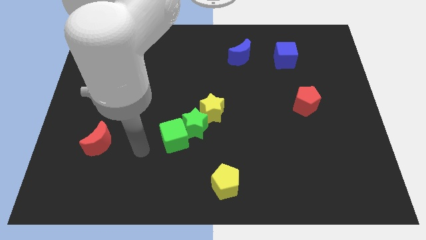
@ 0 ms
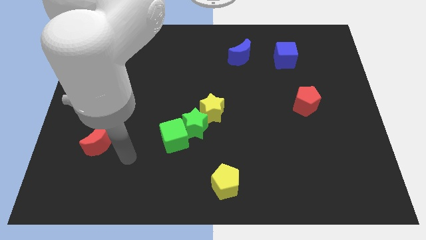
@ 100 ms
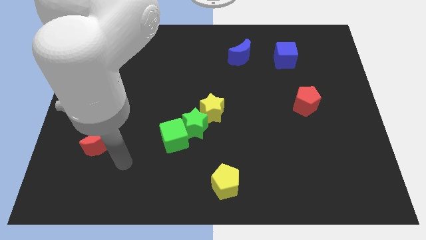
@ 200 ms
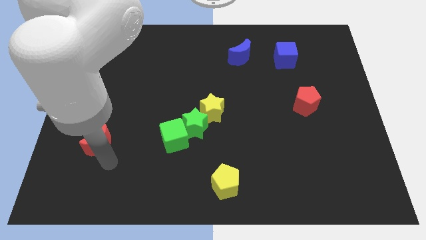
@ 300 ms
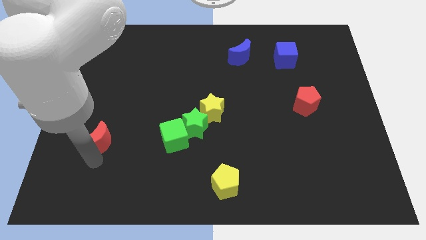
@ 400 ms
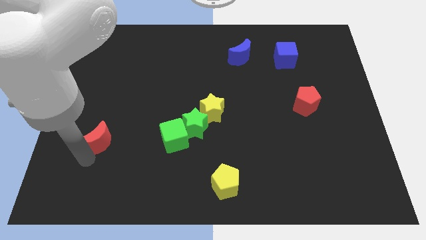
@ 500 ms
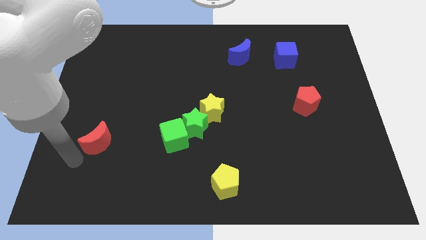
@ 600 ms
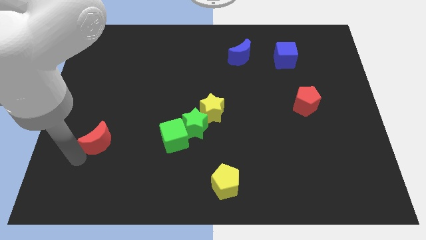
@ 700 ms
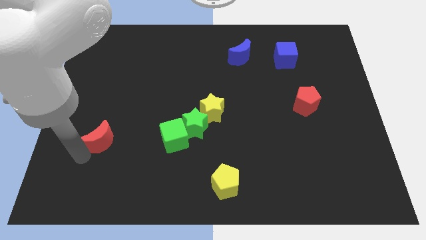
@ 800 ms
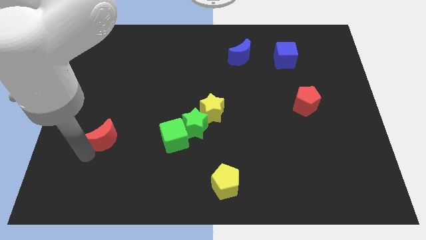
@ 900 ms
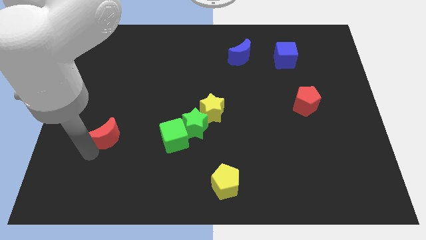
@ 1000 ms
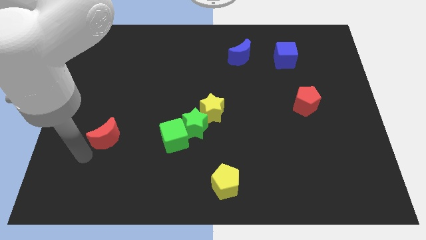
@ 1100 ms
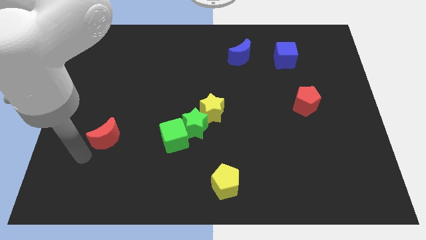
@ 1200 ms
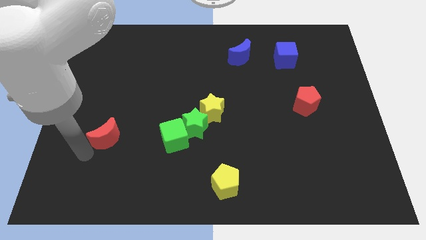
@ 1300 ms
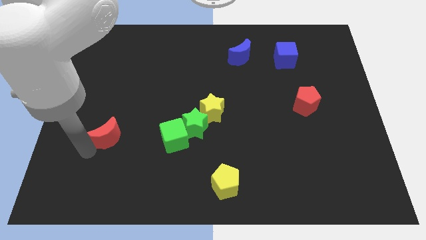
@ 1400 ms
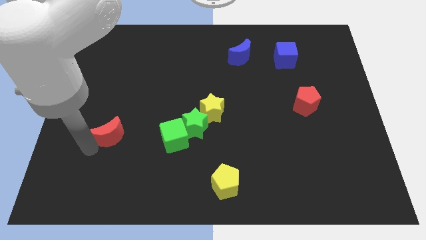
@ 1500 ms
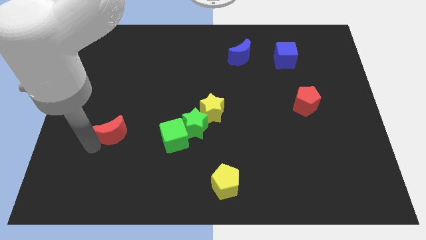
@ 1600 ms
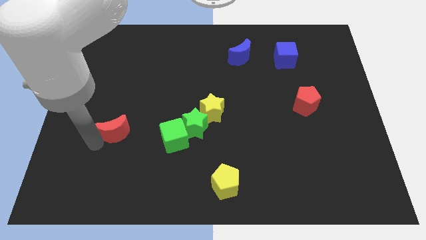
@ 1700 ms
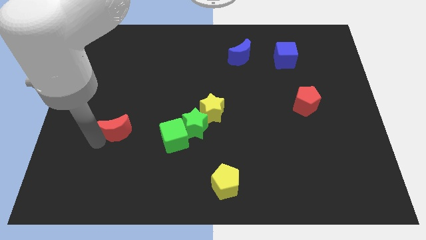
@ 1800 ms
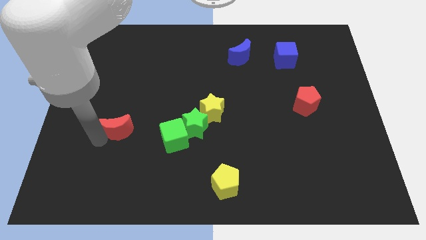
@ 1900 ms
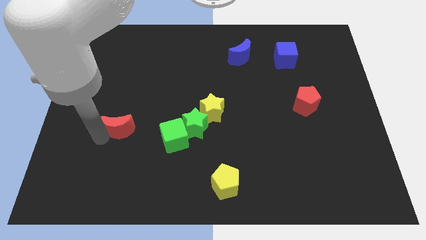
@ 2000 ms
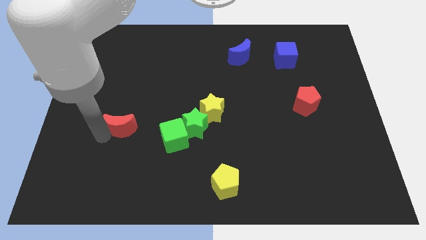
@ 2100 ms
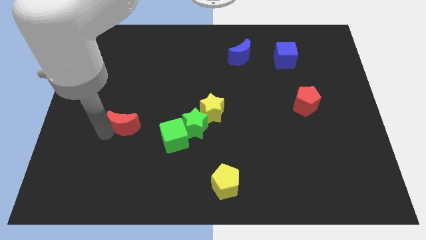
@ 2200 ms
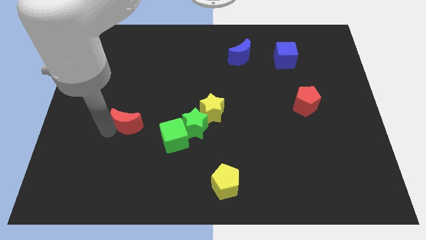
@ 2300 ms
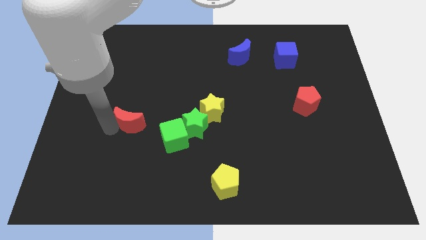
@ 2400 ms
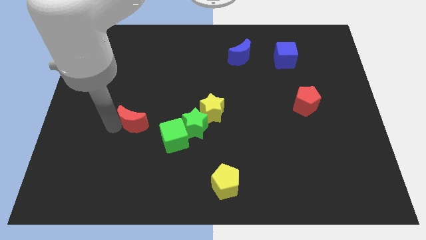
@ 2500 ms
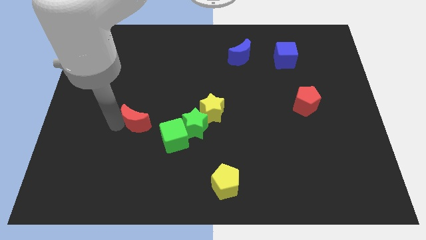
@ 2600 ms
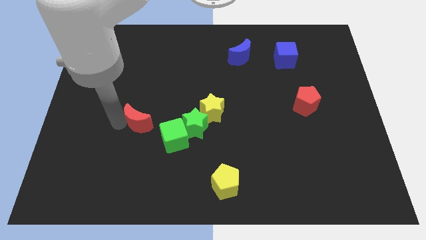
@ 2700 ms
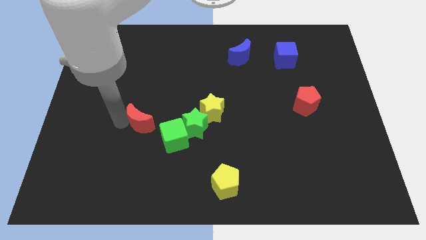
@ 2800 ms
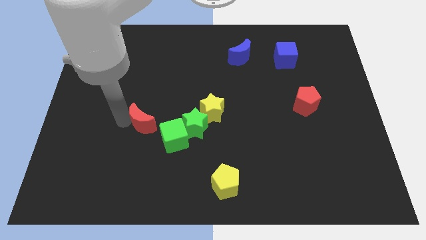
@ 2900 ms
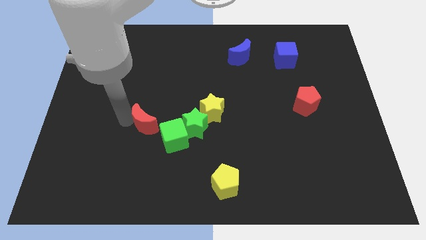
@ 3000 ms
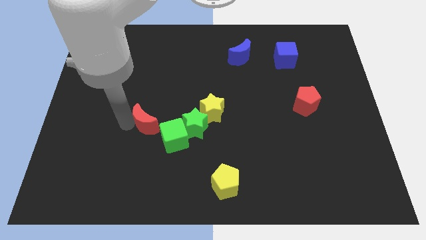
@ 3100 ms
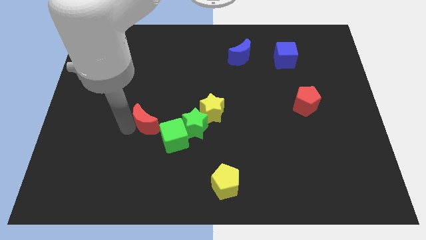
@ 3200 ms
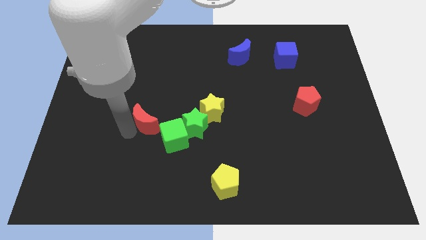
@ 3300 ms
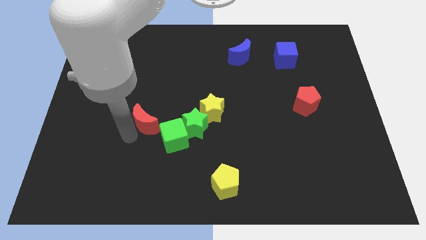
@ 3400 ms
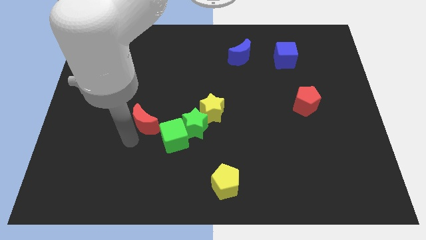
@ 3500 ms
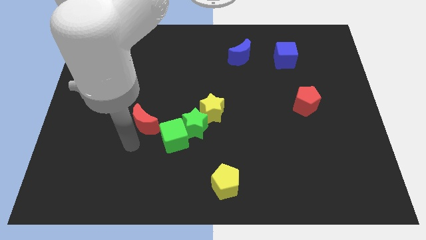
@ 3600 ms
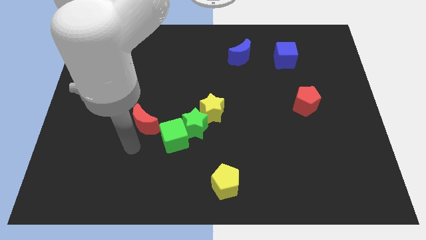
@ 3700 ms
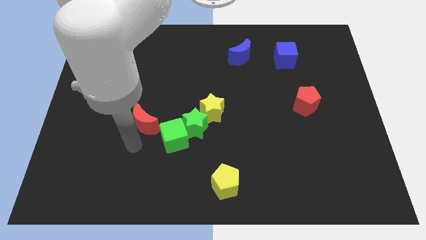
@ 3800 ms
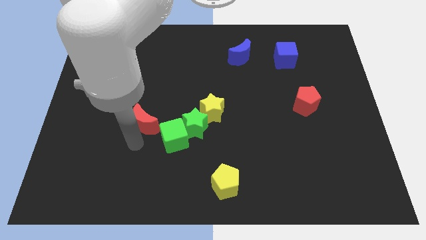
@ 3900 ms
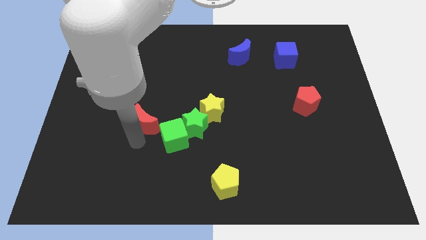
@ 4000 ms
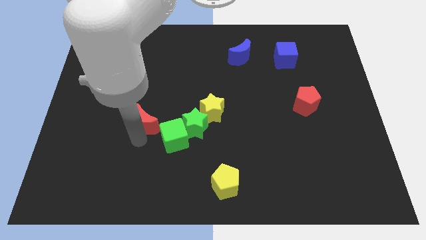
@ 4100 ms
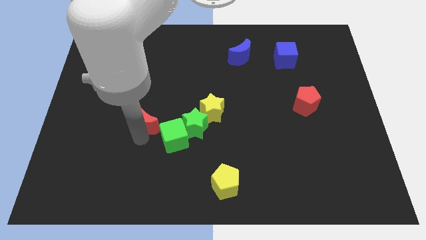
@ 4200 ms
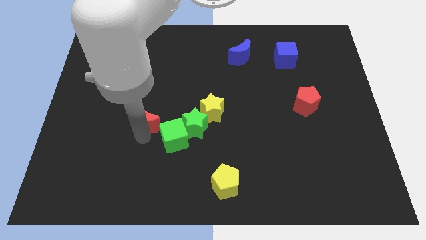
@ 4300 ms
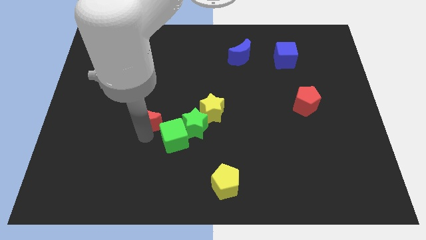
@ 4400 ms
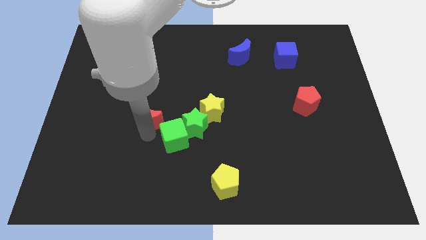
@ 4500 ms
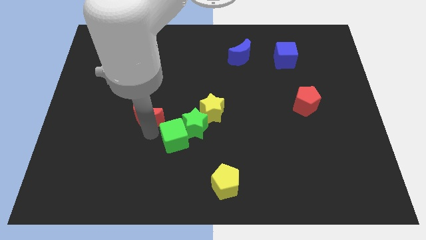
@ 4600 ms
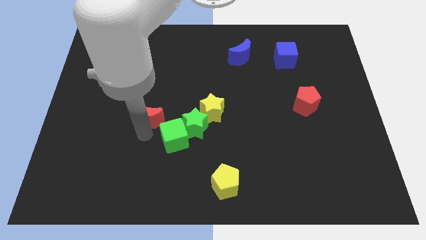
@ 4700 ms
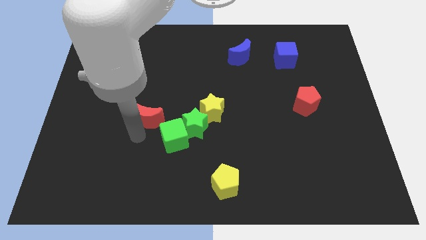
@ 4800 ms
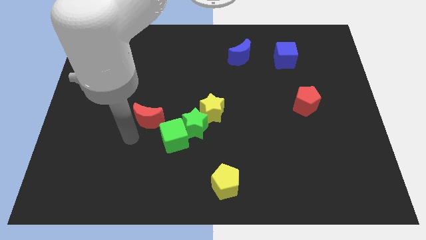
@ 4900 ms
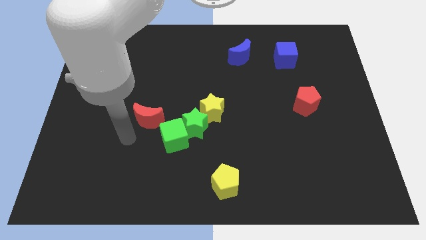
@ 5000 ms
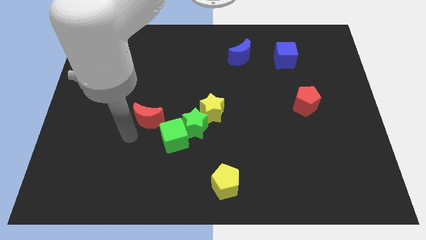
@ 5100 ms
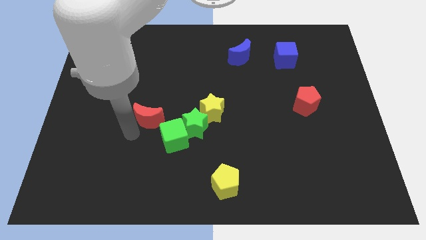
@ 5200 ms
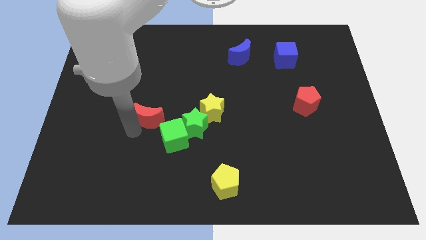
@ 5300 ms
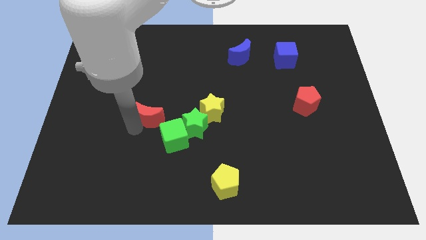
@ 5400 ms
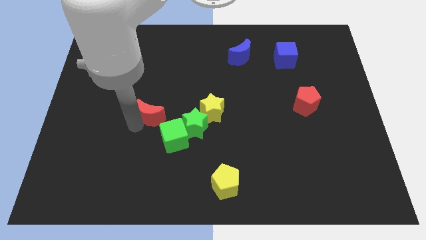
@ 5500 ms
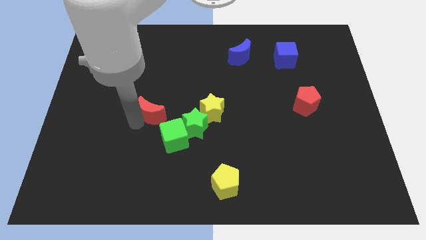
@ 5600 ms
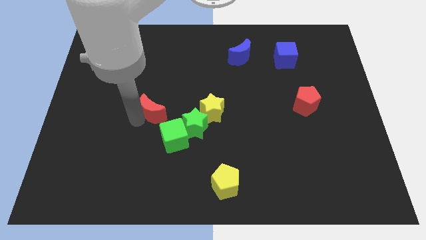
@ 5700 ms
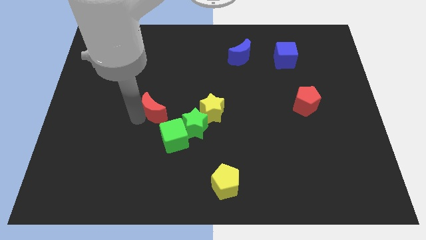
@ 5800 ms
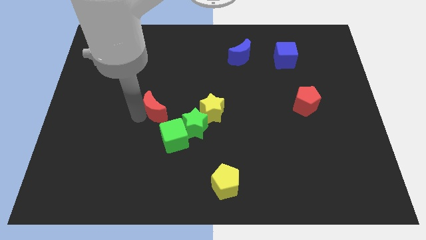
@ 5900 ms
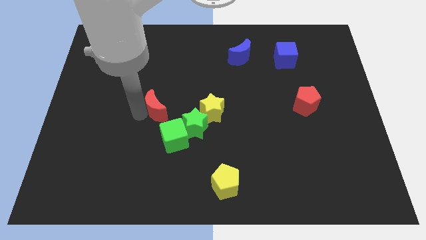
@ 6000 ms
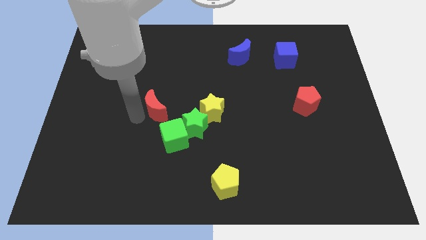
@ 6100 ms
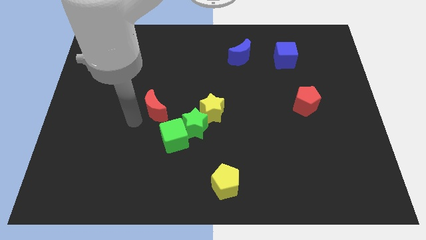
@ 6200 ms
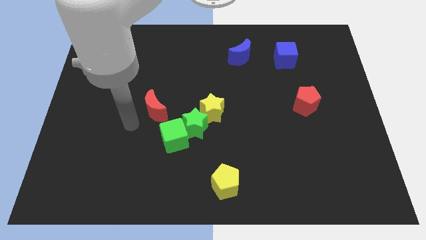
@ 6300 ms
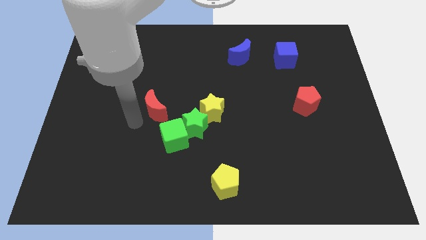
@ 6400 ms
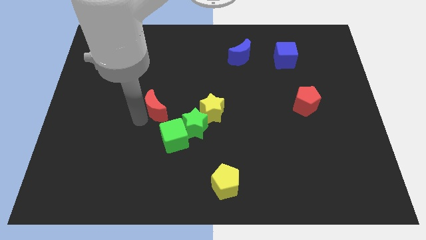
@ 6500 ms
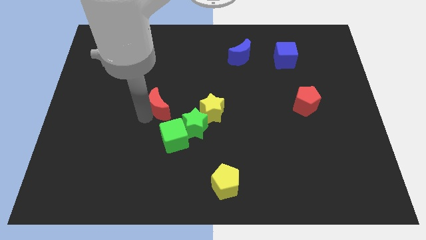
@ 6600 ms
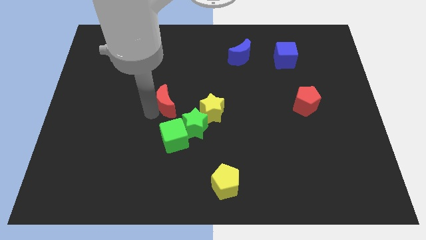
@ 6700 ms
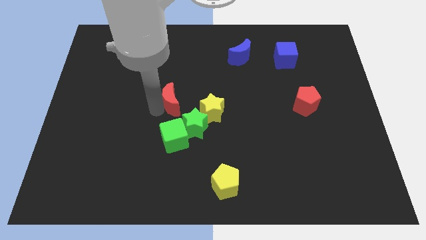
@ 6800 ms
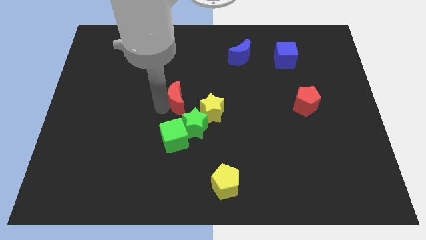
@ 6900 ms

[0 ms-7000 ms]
put the red moon to the top of the green star
